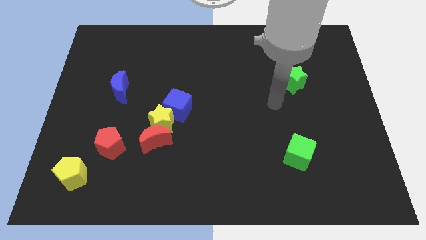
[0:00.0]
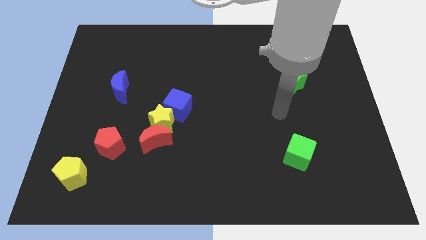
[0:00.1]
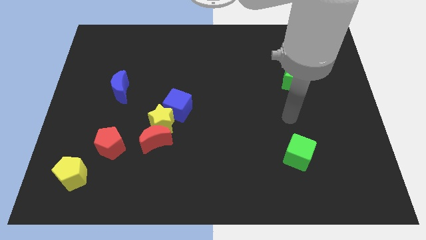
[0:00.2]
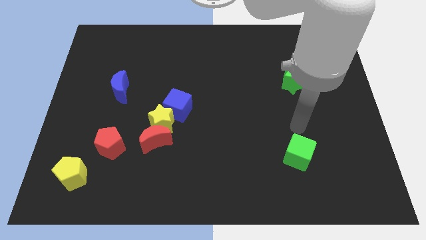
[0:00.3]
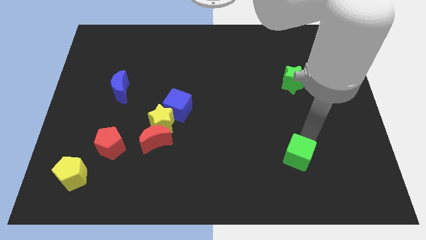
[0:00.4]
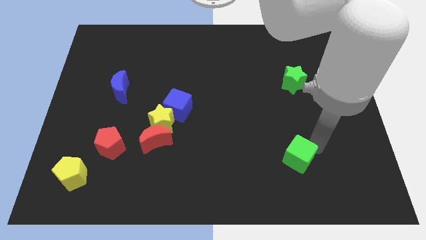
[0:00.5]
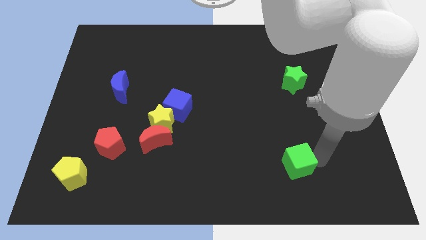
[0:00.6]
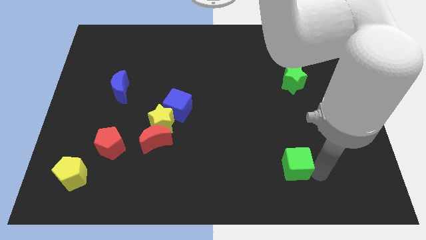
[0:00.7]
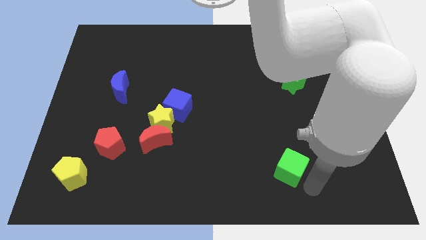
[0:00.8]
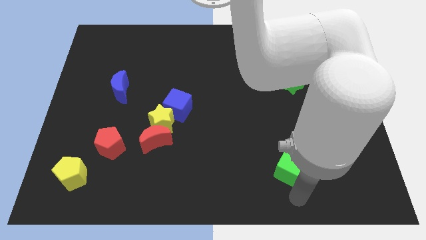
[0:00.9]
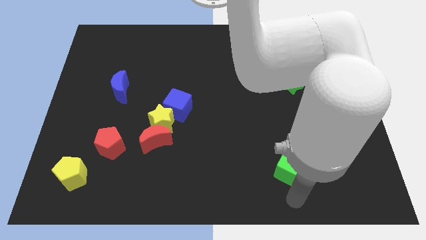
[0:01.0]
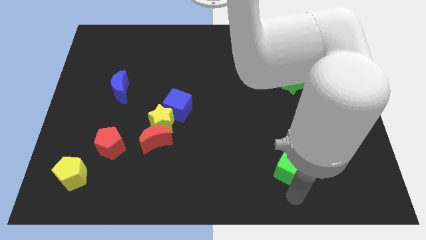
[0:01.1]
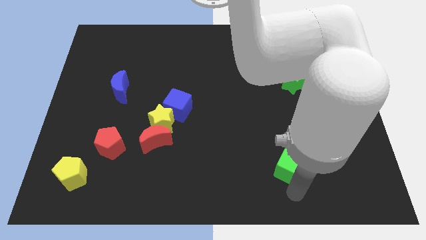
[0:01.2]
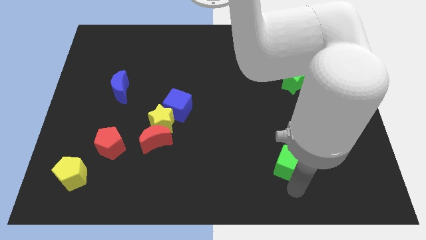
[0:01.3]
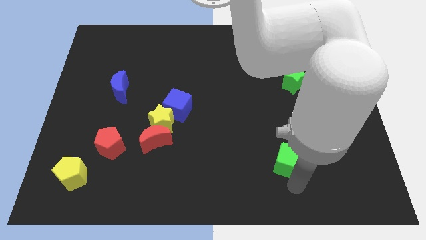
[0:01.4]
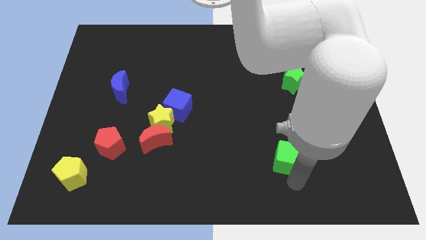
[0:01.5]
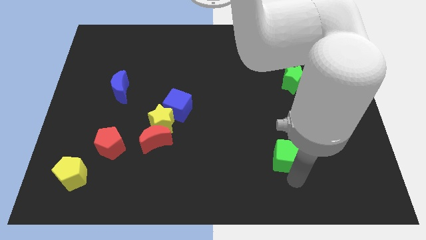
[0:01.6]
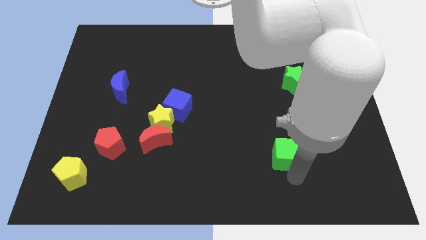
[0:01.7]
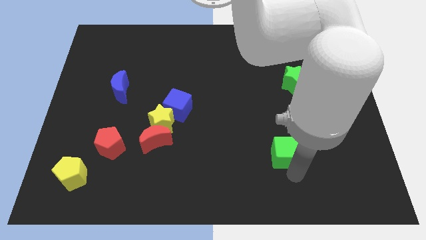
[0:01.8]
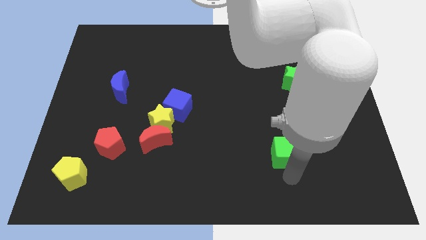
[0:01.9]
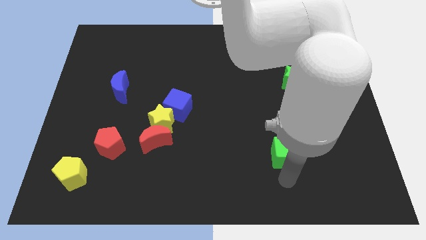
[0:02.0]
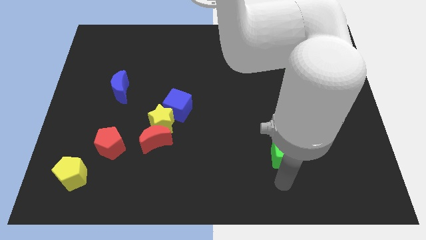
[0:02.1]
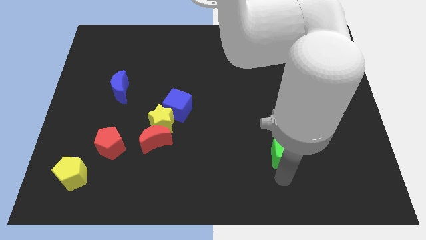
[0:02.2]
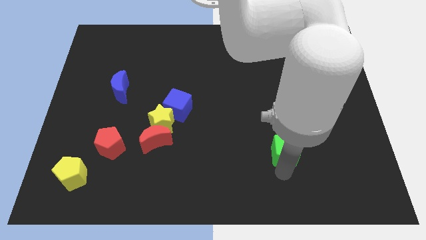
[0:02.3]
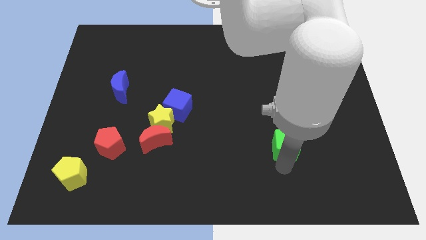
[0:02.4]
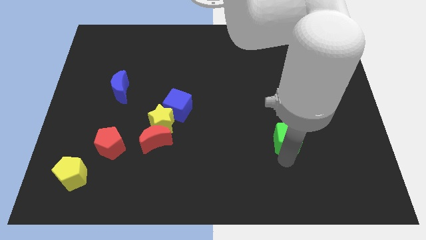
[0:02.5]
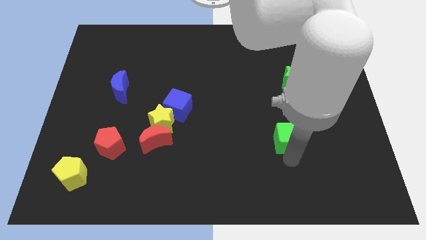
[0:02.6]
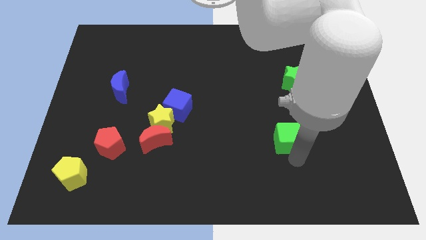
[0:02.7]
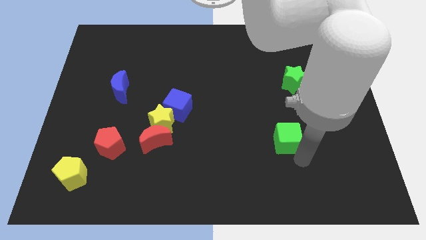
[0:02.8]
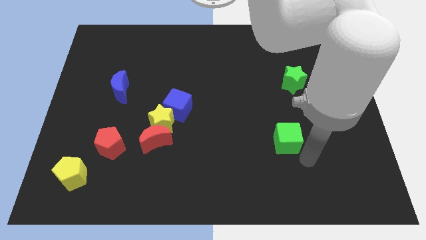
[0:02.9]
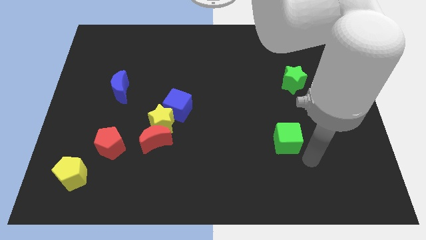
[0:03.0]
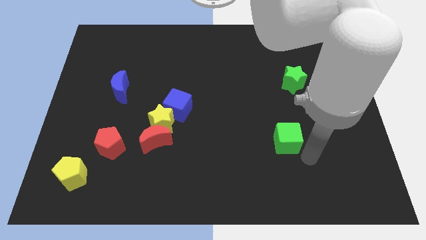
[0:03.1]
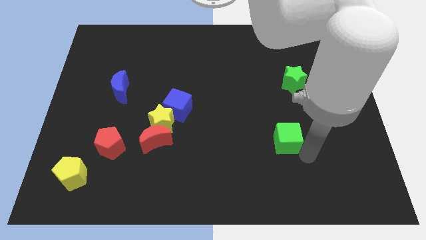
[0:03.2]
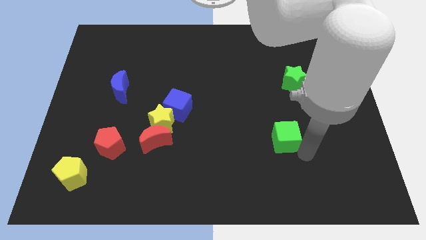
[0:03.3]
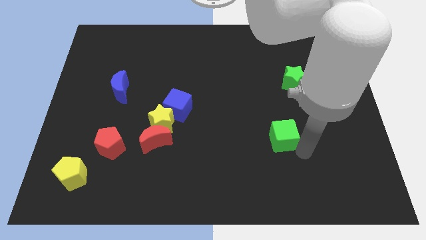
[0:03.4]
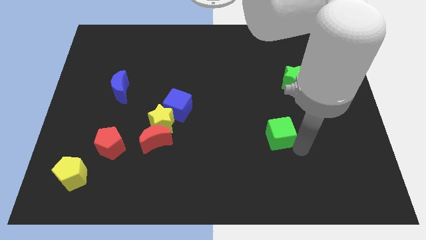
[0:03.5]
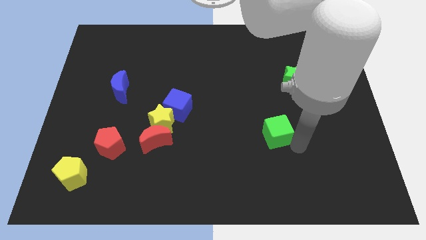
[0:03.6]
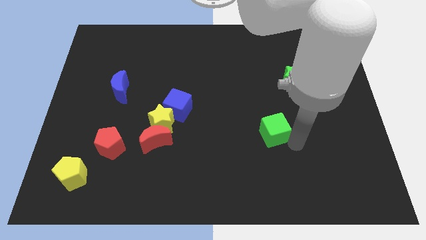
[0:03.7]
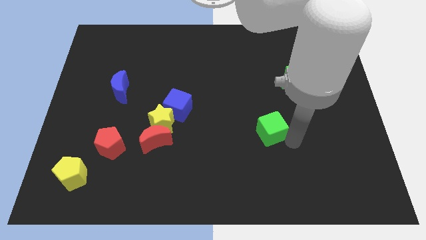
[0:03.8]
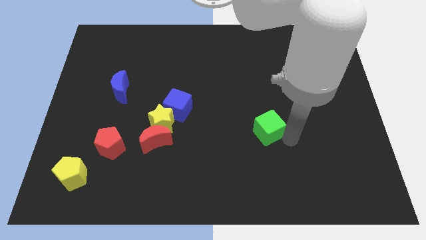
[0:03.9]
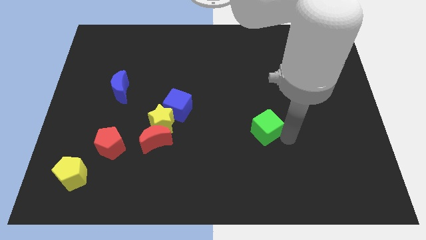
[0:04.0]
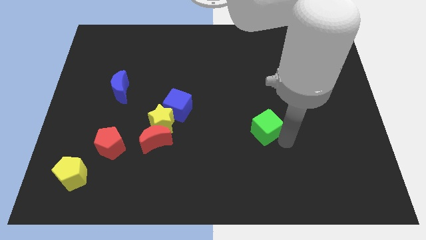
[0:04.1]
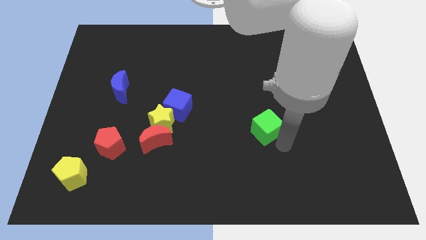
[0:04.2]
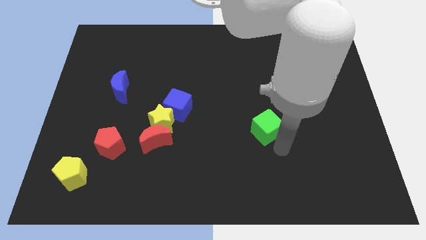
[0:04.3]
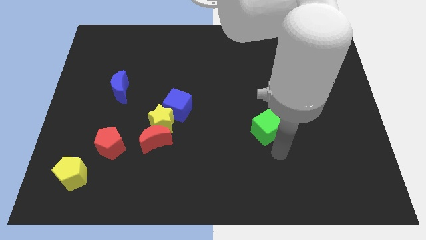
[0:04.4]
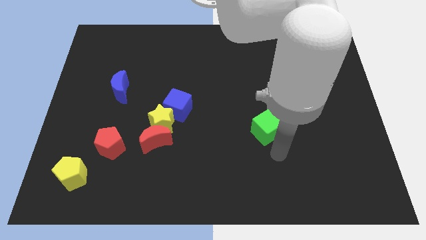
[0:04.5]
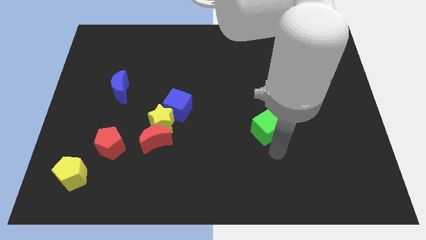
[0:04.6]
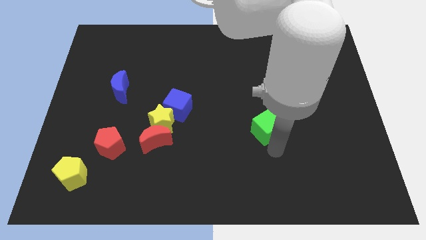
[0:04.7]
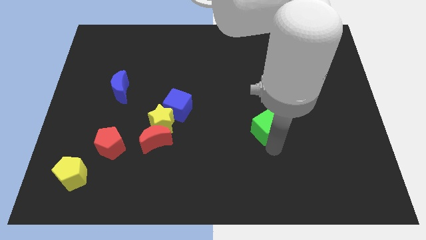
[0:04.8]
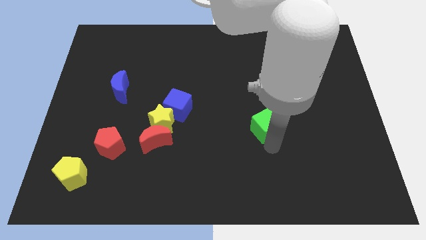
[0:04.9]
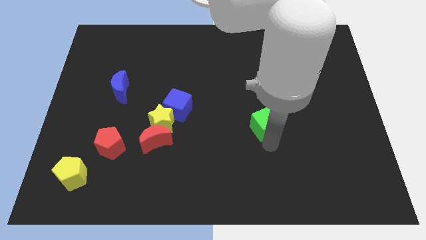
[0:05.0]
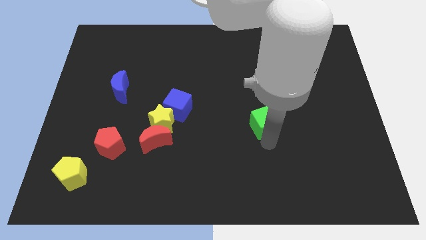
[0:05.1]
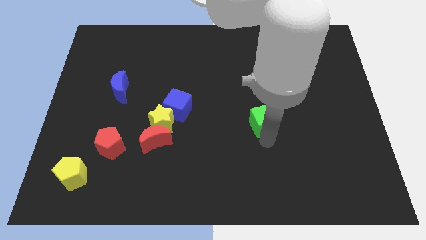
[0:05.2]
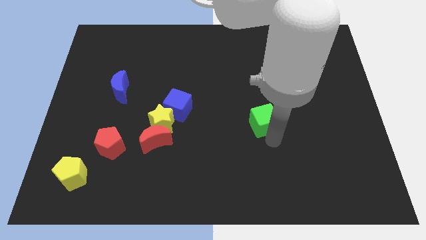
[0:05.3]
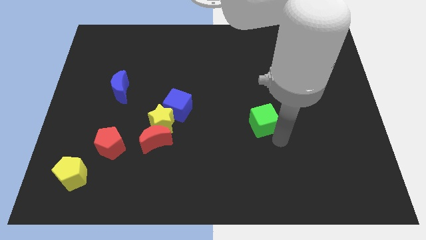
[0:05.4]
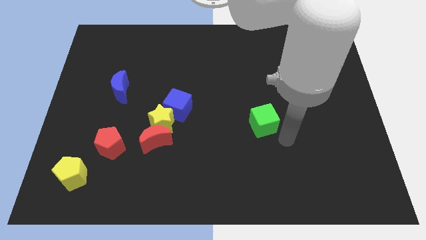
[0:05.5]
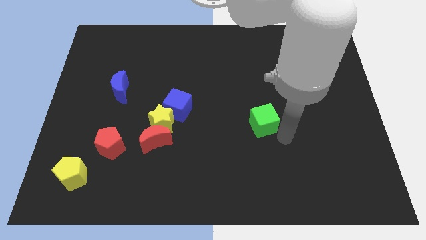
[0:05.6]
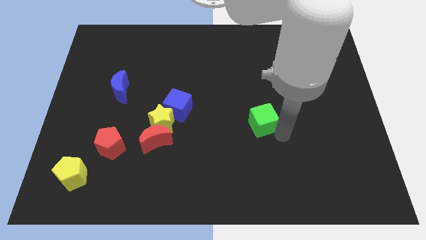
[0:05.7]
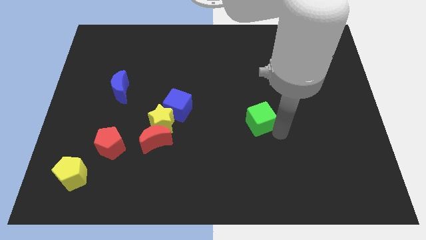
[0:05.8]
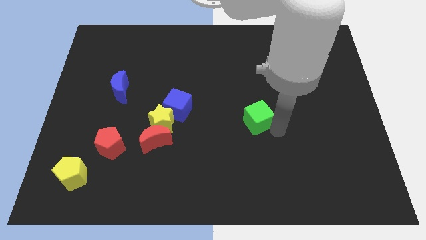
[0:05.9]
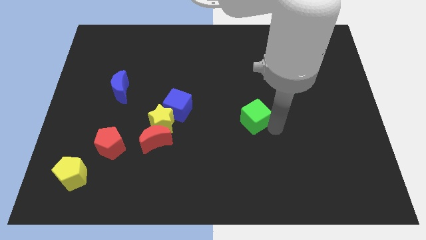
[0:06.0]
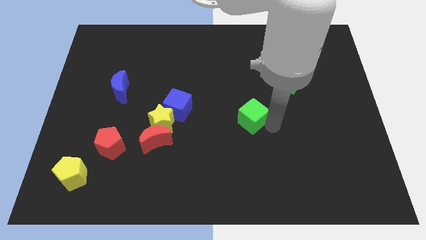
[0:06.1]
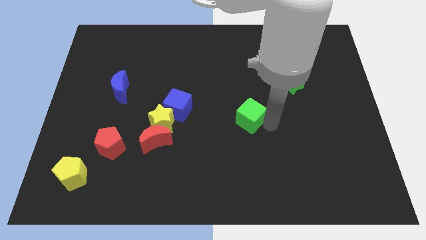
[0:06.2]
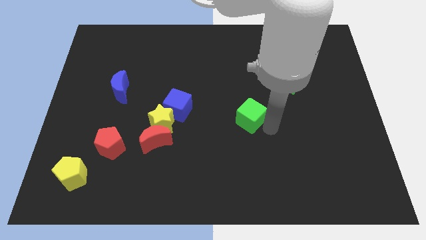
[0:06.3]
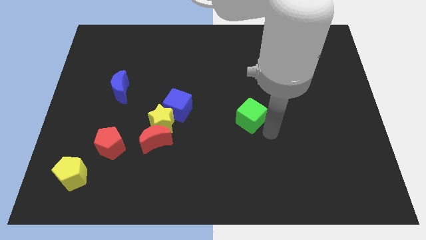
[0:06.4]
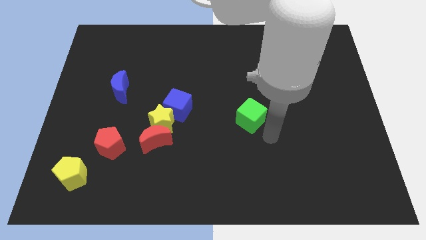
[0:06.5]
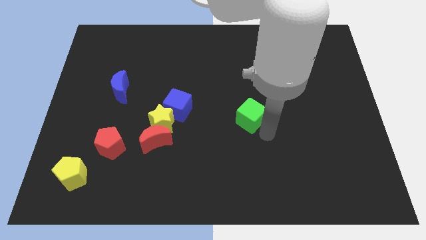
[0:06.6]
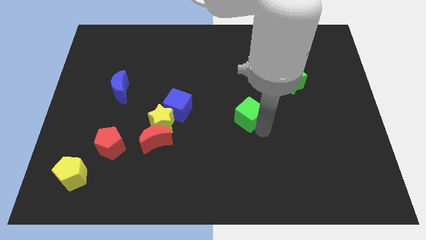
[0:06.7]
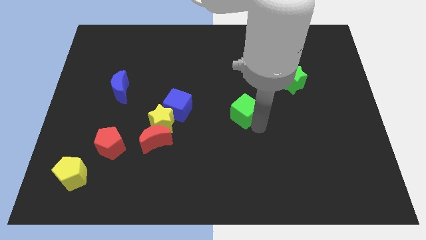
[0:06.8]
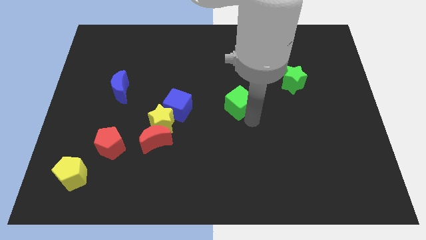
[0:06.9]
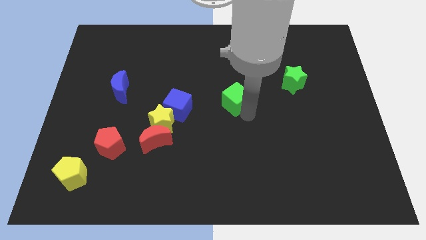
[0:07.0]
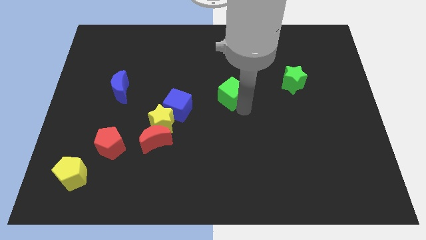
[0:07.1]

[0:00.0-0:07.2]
slide the green cube diagonally upwards and left

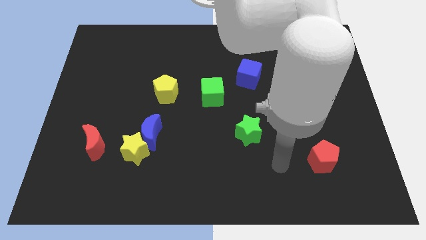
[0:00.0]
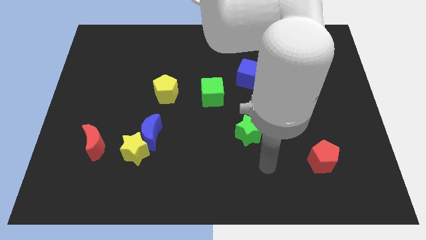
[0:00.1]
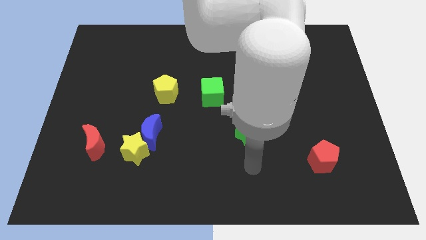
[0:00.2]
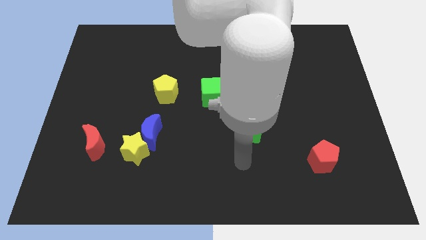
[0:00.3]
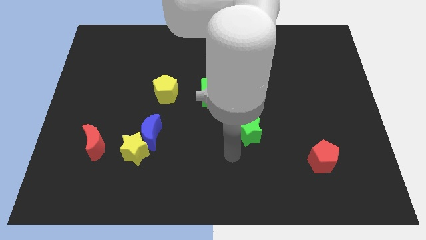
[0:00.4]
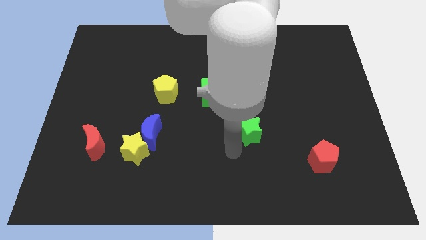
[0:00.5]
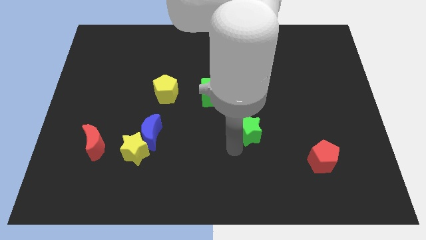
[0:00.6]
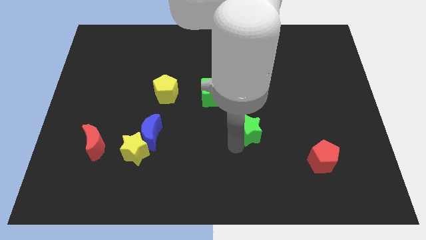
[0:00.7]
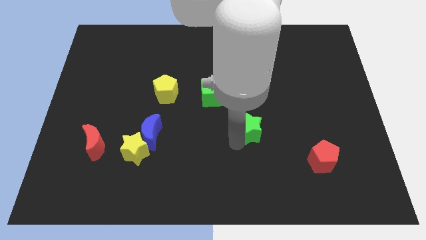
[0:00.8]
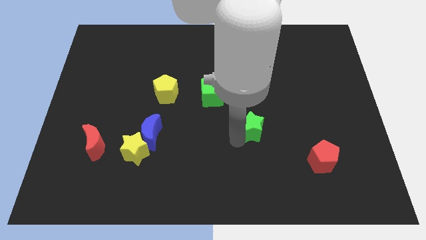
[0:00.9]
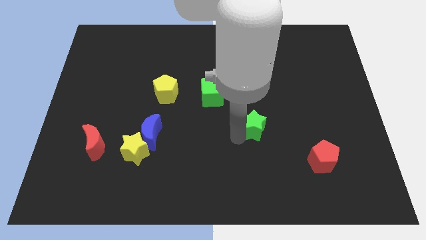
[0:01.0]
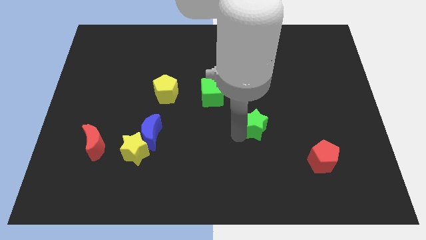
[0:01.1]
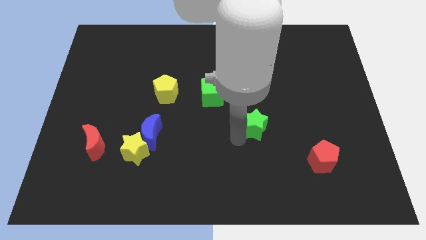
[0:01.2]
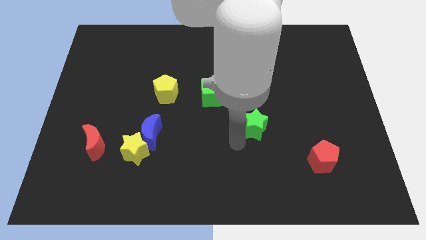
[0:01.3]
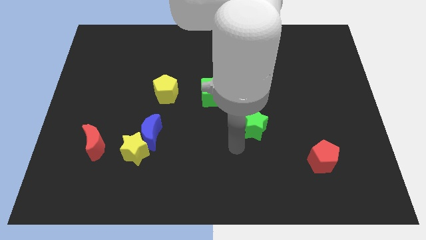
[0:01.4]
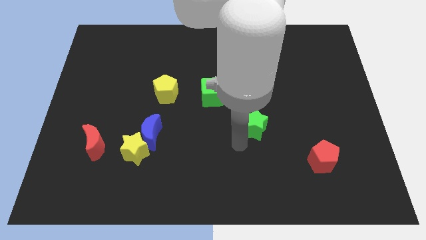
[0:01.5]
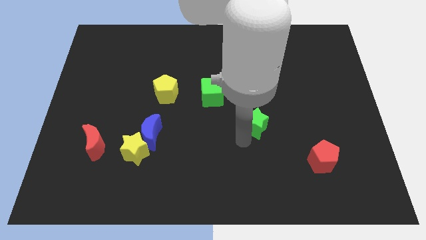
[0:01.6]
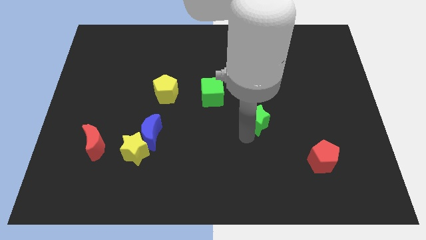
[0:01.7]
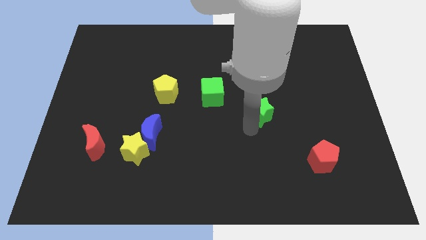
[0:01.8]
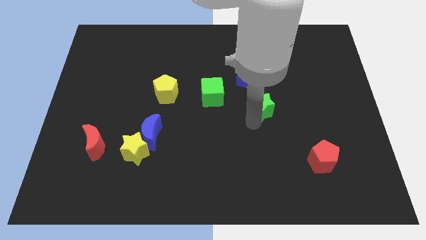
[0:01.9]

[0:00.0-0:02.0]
slide the green star upwards and then to the right a little bit
